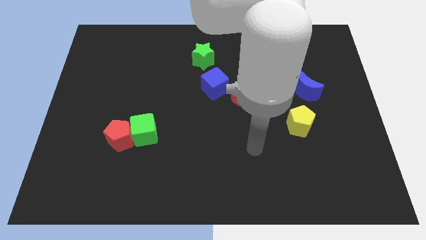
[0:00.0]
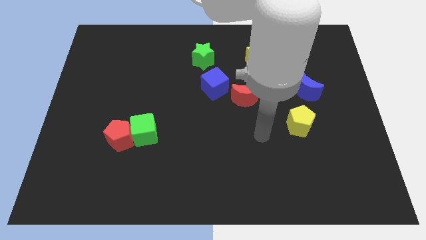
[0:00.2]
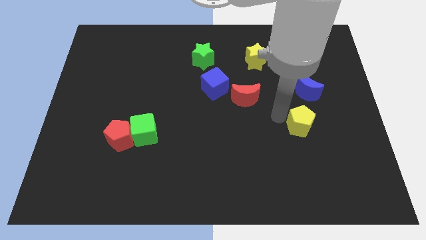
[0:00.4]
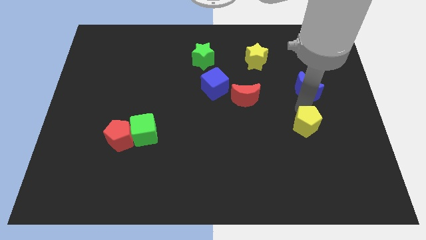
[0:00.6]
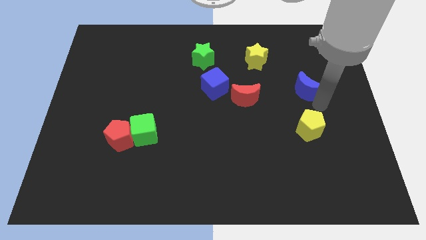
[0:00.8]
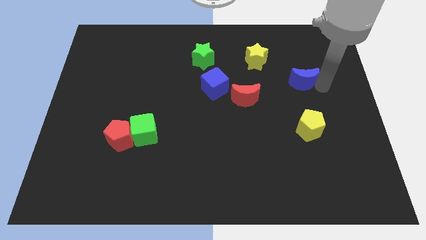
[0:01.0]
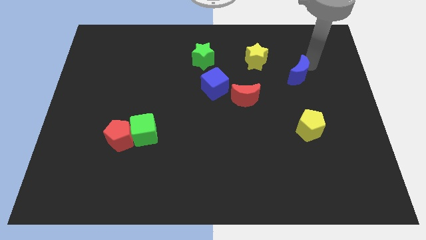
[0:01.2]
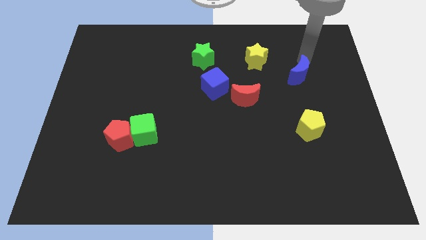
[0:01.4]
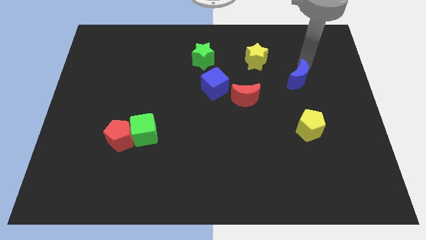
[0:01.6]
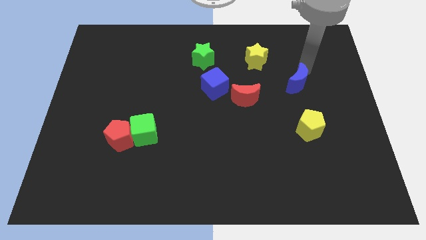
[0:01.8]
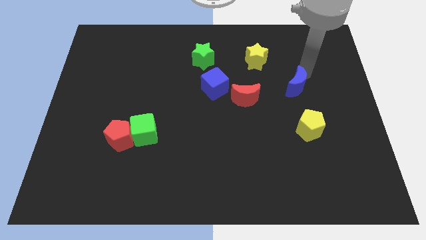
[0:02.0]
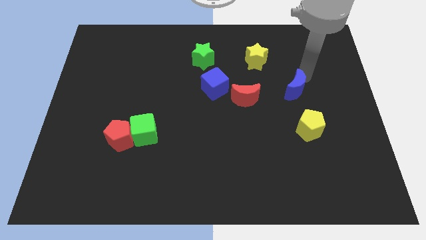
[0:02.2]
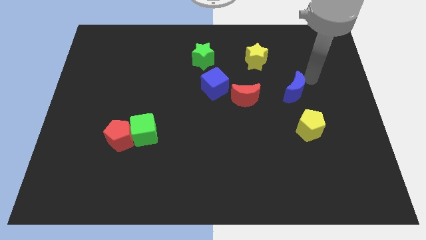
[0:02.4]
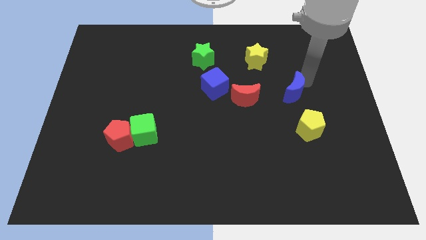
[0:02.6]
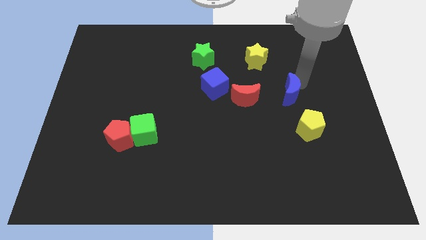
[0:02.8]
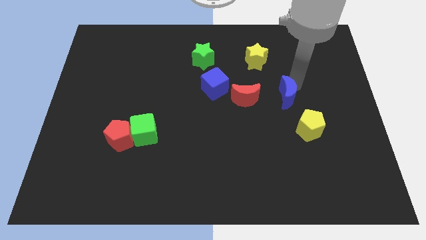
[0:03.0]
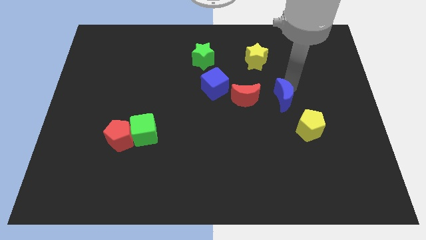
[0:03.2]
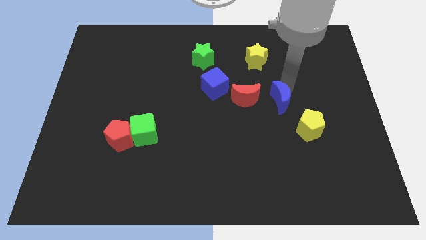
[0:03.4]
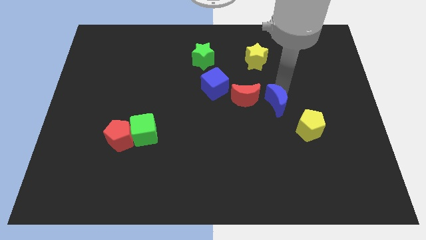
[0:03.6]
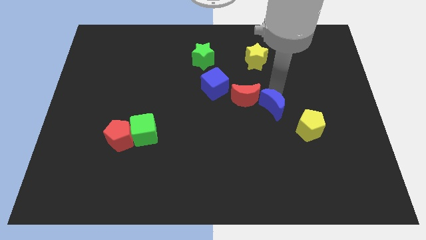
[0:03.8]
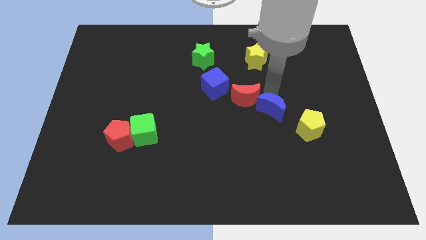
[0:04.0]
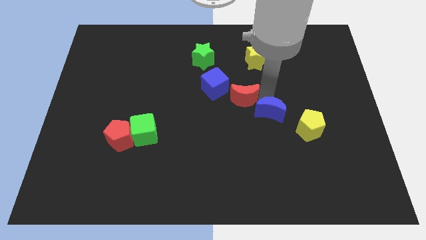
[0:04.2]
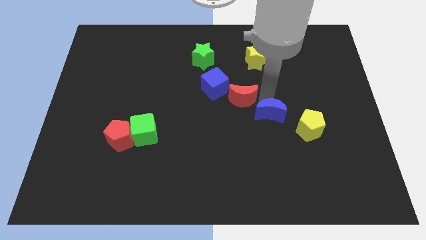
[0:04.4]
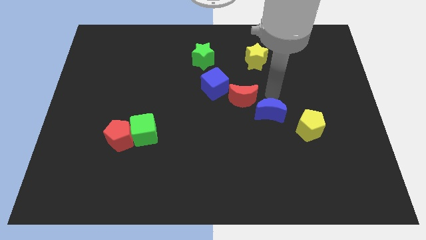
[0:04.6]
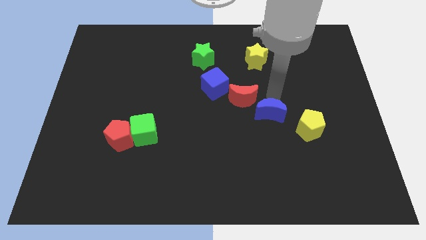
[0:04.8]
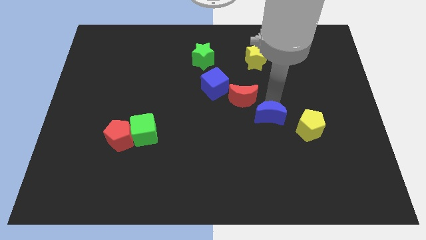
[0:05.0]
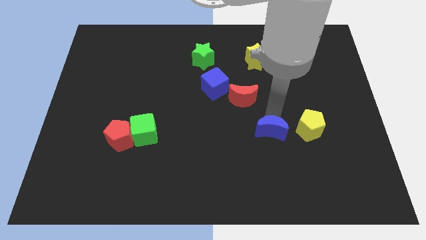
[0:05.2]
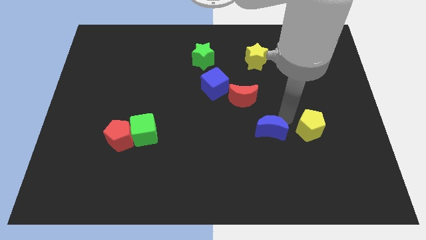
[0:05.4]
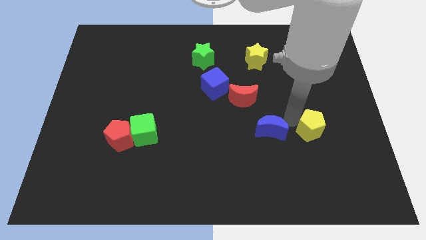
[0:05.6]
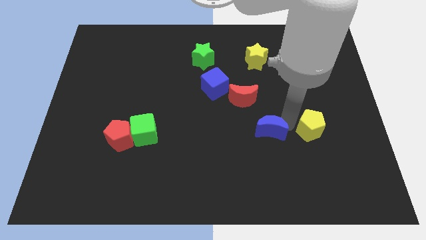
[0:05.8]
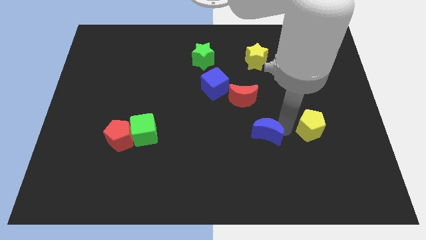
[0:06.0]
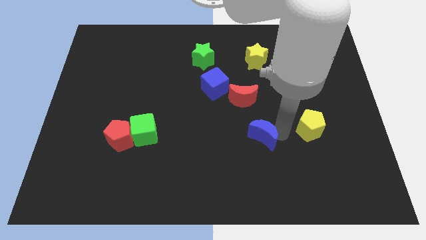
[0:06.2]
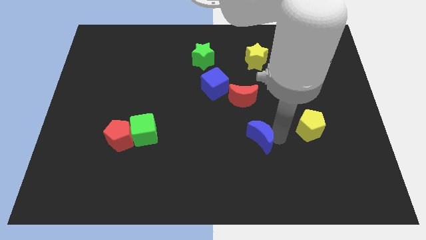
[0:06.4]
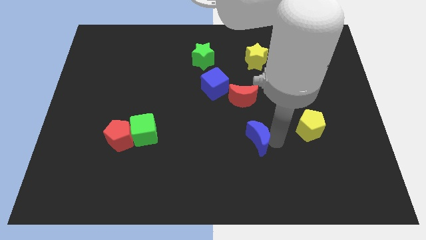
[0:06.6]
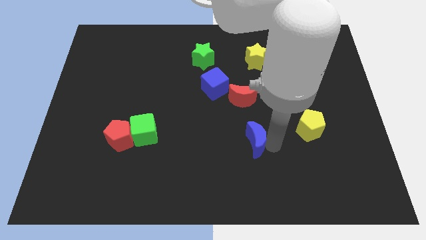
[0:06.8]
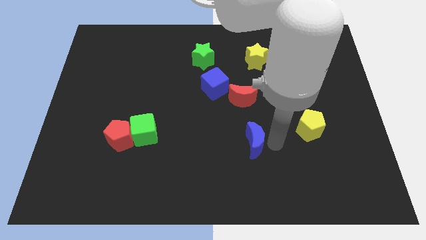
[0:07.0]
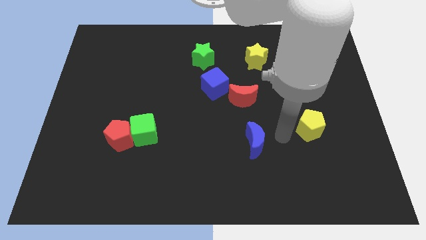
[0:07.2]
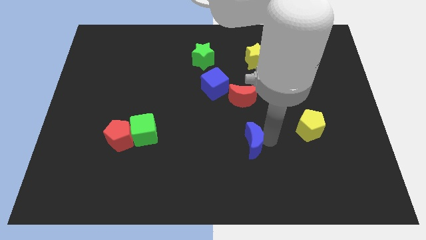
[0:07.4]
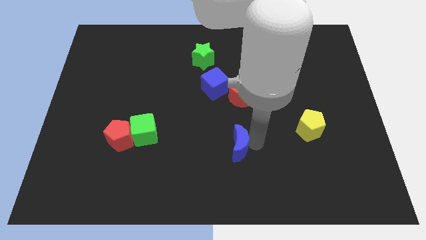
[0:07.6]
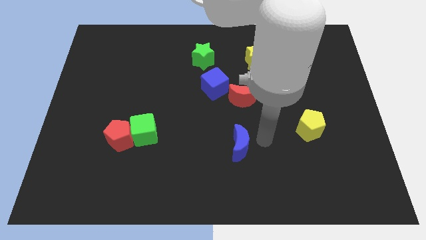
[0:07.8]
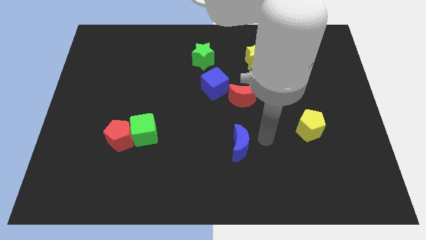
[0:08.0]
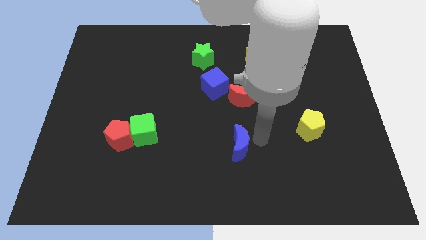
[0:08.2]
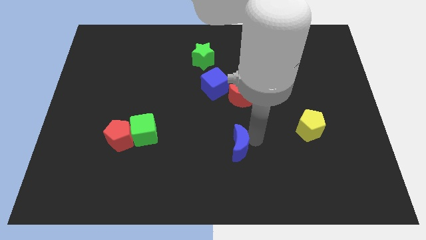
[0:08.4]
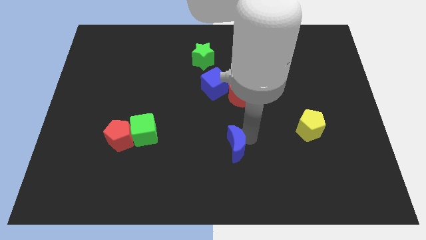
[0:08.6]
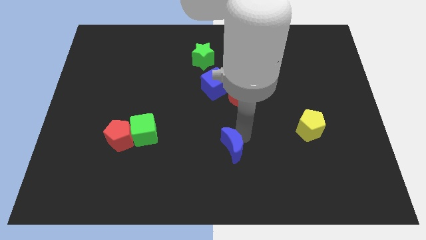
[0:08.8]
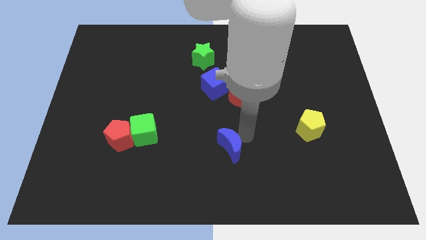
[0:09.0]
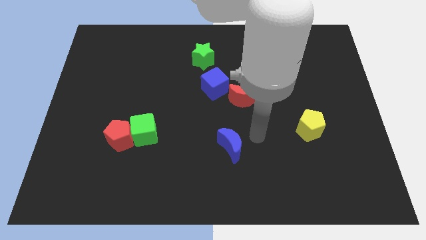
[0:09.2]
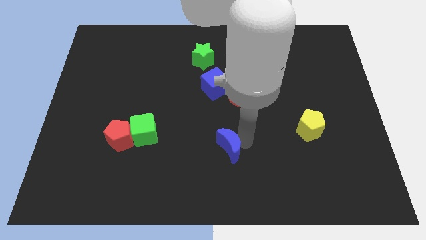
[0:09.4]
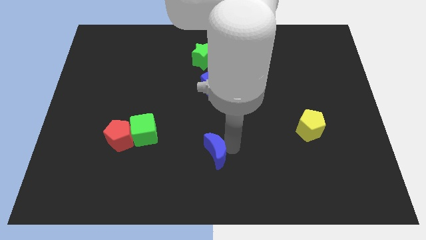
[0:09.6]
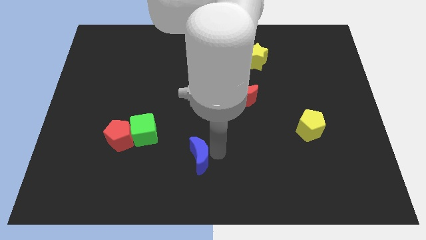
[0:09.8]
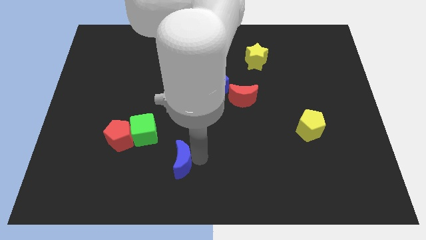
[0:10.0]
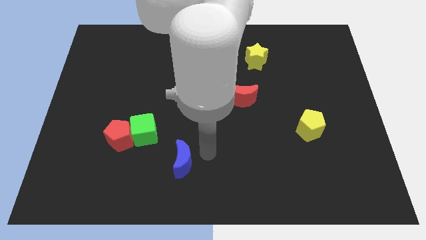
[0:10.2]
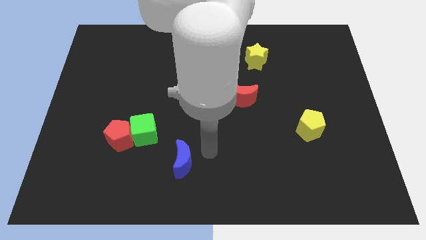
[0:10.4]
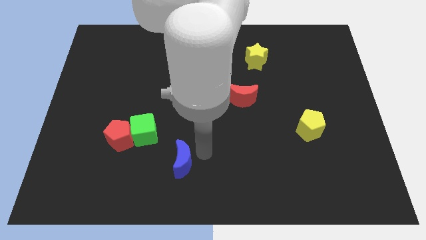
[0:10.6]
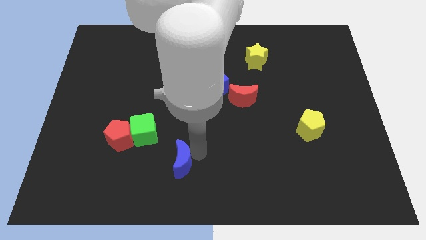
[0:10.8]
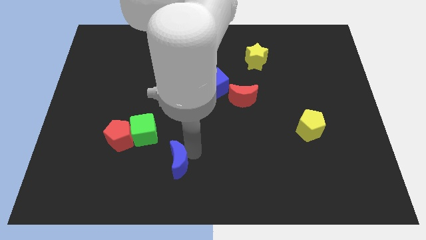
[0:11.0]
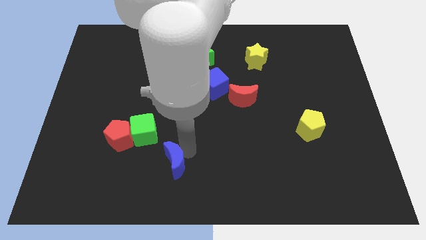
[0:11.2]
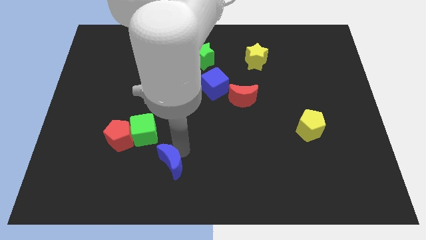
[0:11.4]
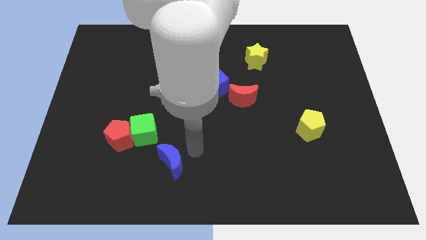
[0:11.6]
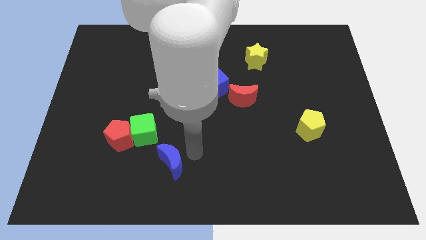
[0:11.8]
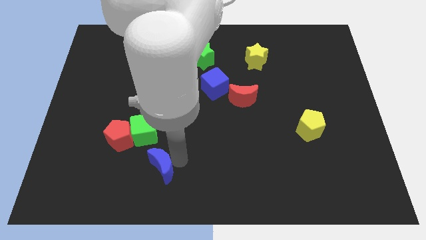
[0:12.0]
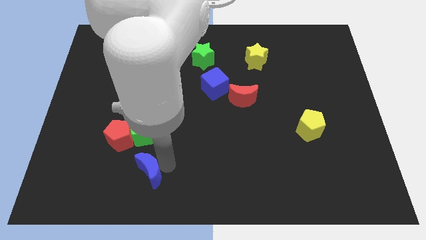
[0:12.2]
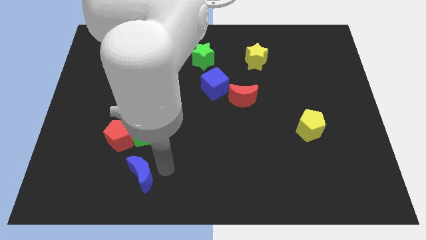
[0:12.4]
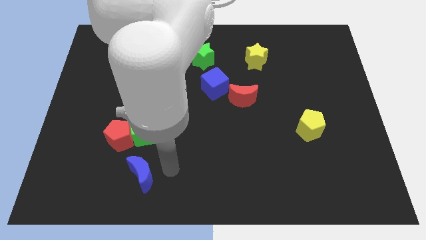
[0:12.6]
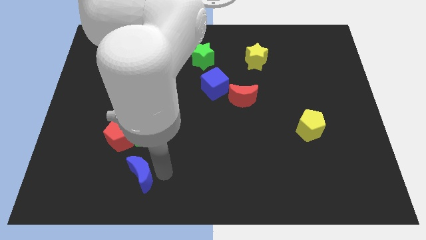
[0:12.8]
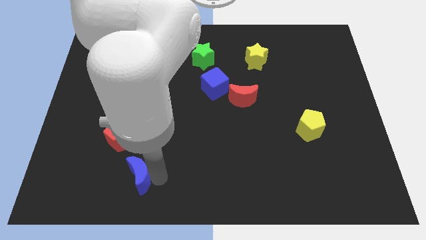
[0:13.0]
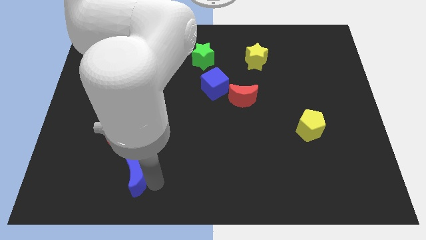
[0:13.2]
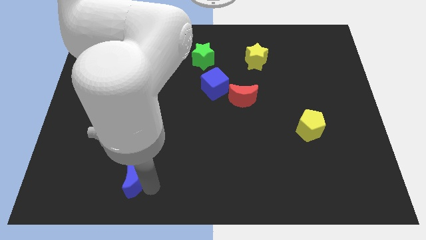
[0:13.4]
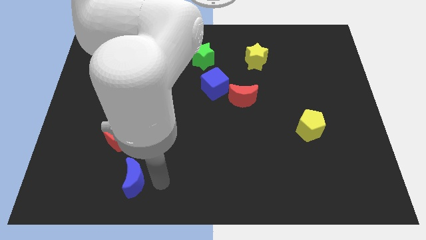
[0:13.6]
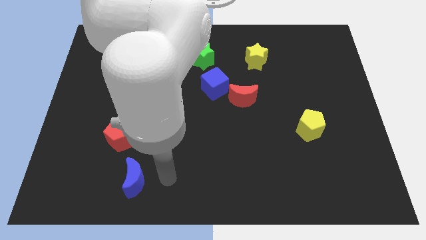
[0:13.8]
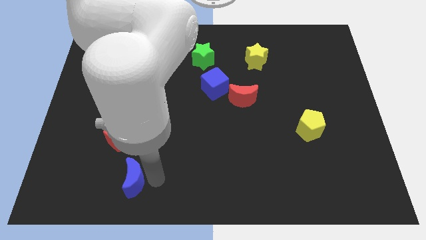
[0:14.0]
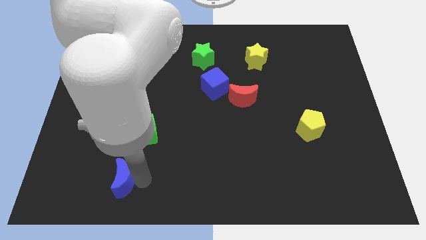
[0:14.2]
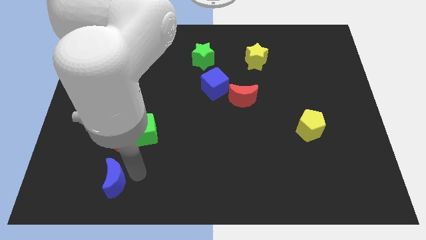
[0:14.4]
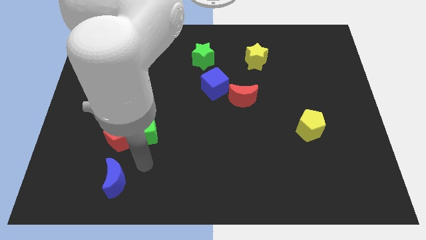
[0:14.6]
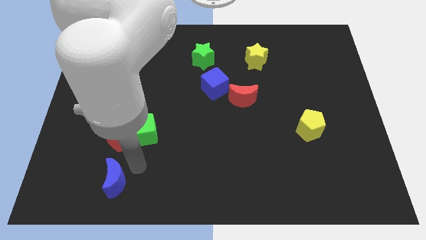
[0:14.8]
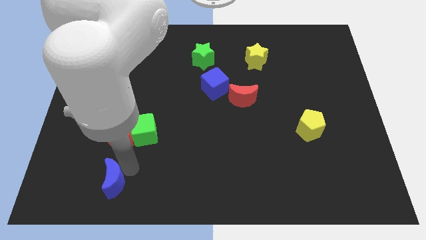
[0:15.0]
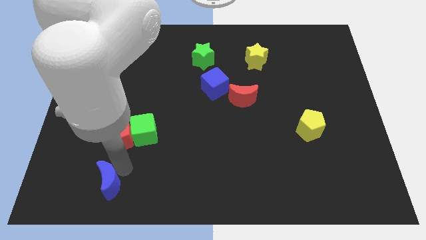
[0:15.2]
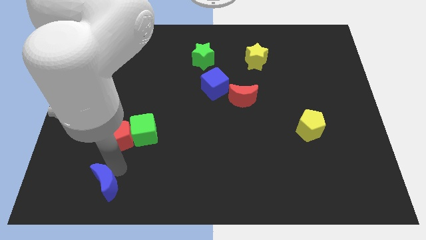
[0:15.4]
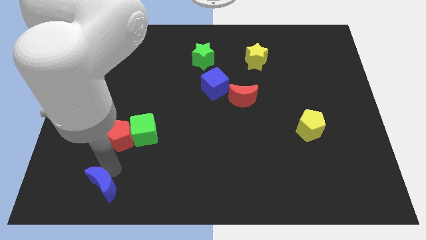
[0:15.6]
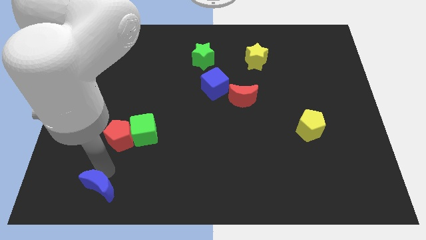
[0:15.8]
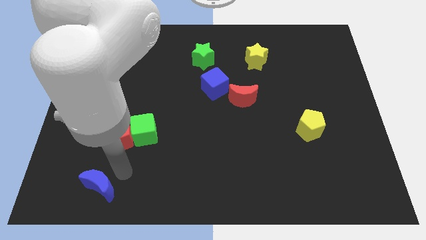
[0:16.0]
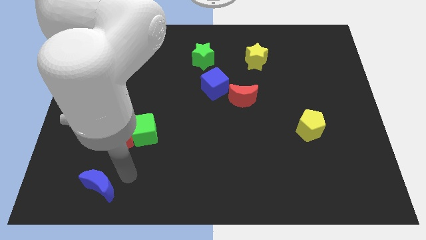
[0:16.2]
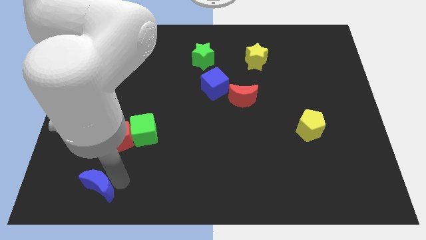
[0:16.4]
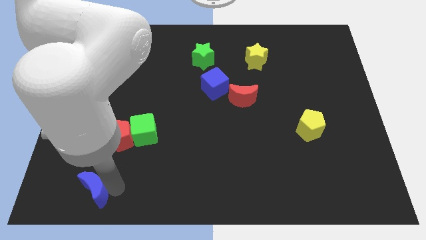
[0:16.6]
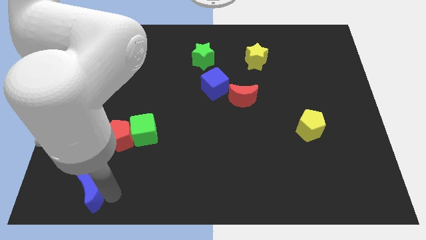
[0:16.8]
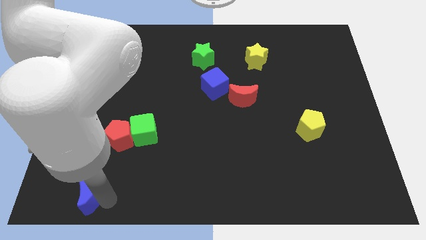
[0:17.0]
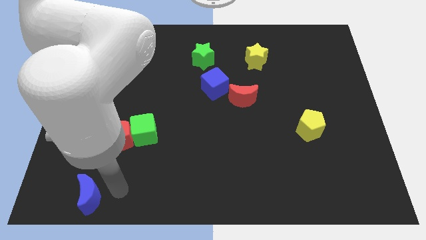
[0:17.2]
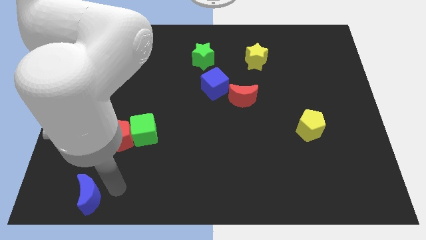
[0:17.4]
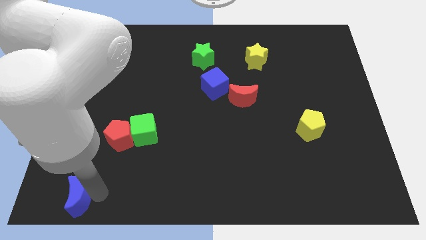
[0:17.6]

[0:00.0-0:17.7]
push the blue moon to the bottom left
